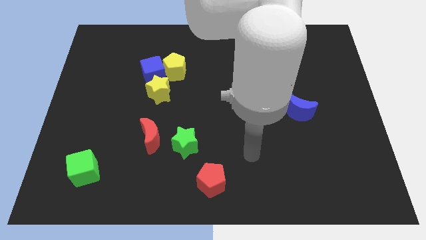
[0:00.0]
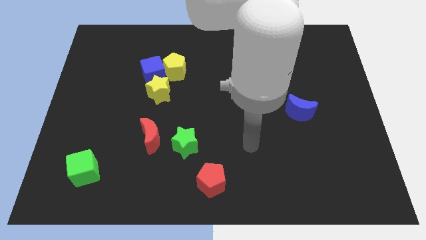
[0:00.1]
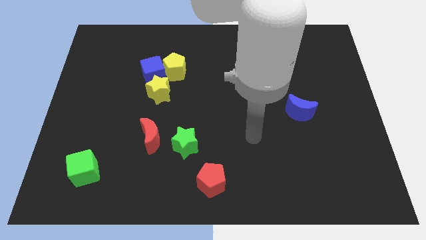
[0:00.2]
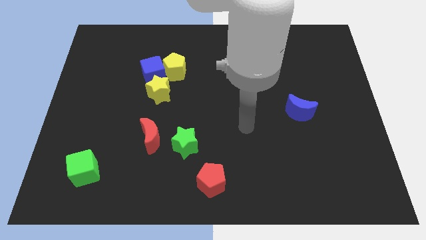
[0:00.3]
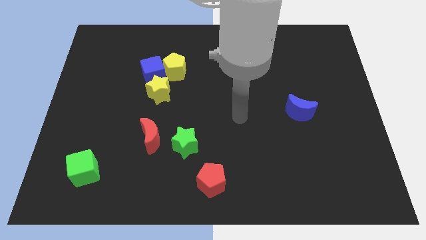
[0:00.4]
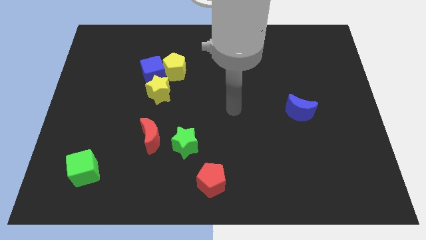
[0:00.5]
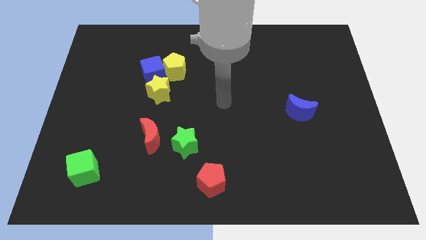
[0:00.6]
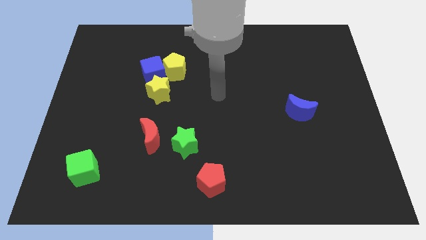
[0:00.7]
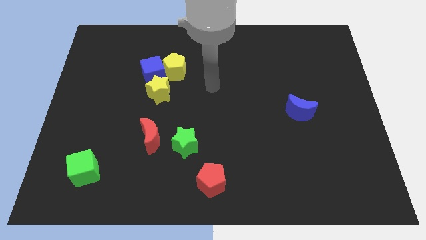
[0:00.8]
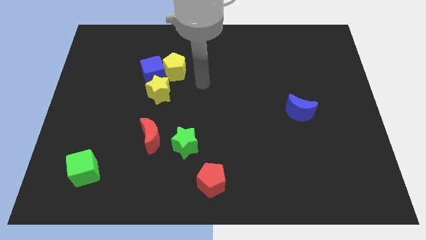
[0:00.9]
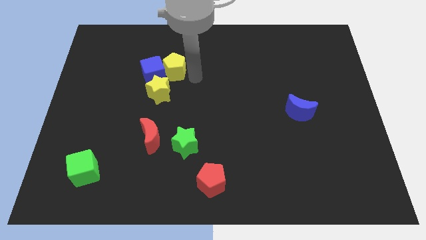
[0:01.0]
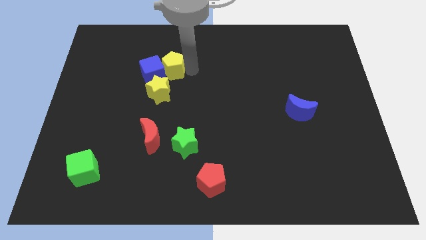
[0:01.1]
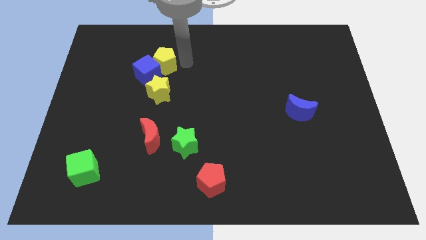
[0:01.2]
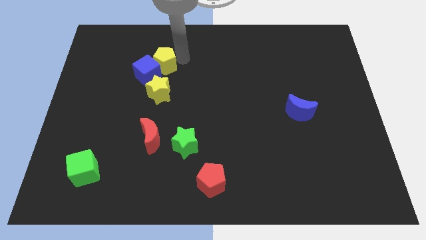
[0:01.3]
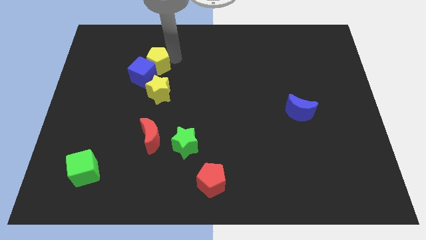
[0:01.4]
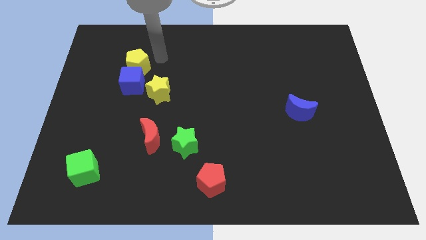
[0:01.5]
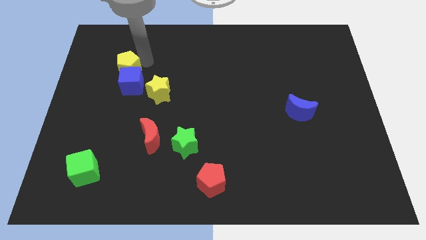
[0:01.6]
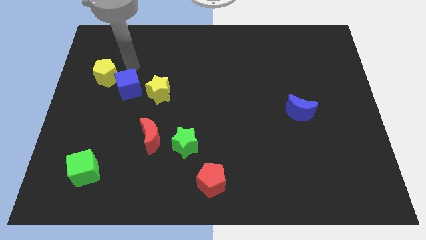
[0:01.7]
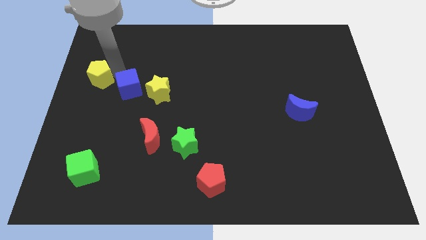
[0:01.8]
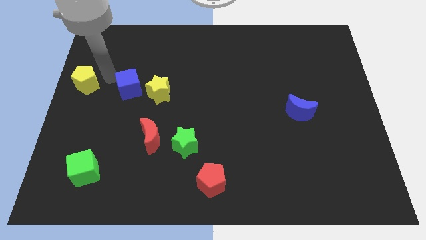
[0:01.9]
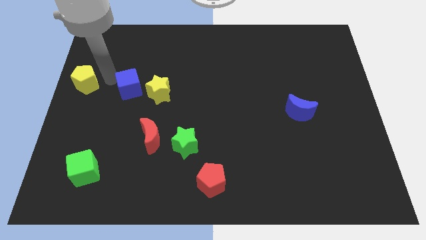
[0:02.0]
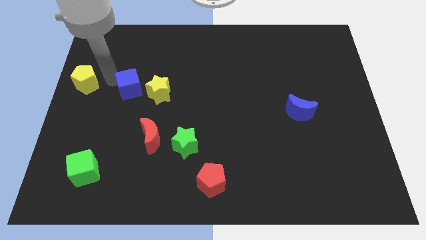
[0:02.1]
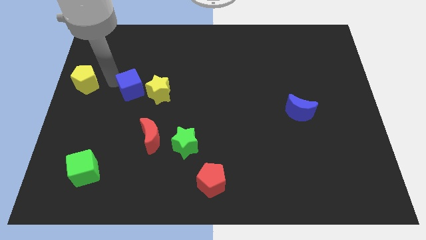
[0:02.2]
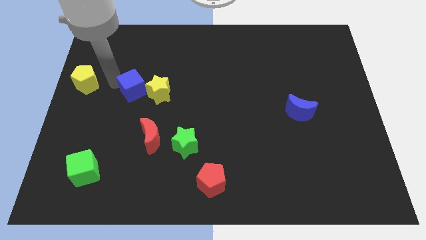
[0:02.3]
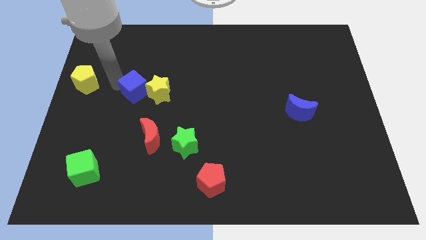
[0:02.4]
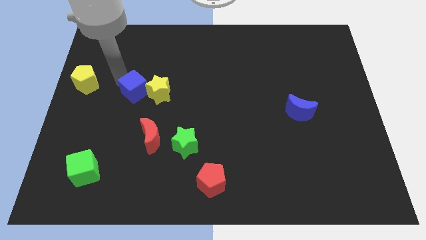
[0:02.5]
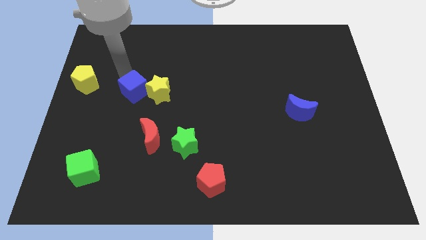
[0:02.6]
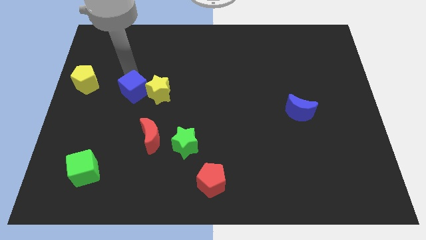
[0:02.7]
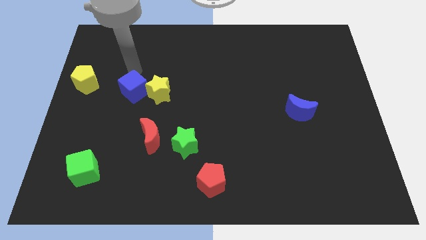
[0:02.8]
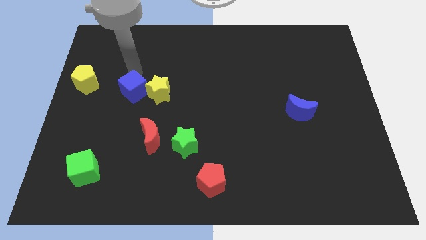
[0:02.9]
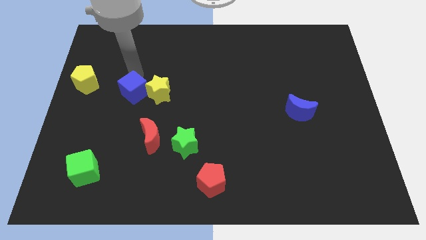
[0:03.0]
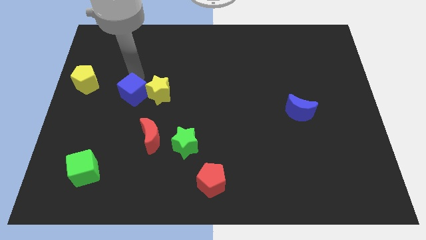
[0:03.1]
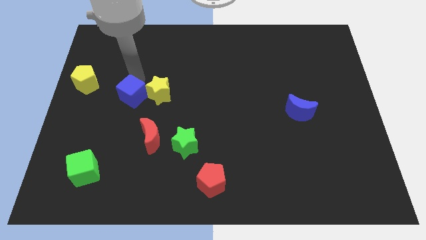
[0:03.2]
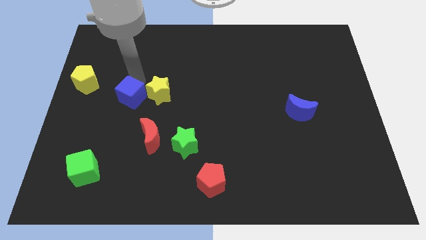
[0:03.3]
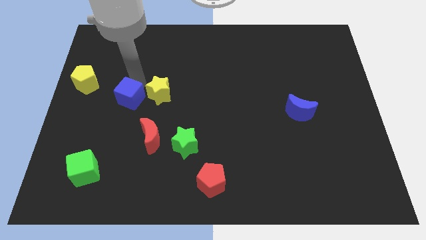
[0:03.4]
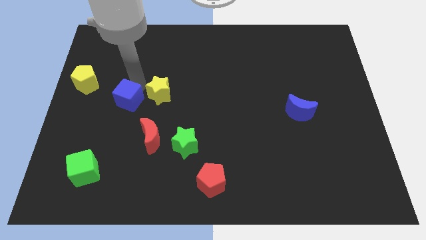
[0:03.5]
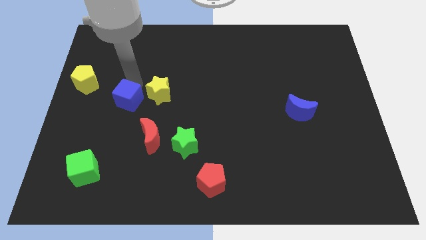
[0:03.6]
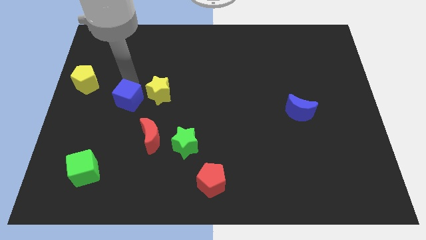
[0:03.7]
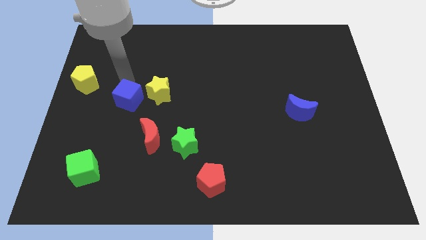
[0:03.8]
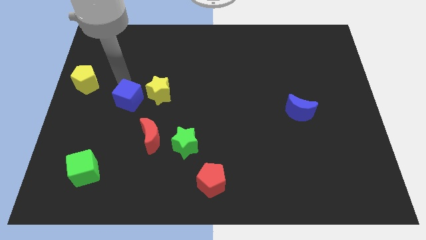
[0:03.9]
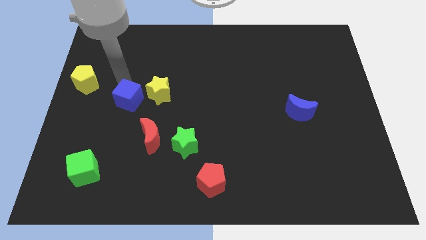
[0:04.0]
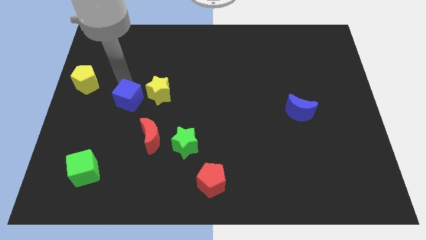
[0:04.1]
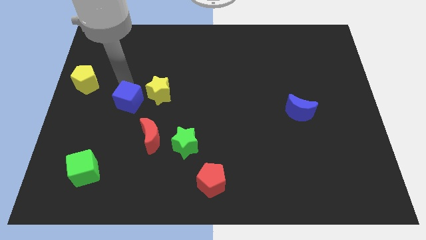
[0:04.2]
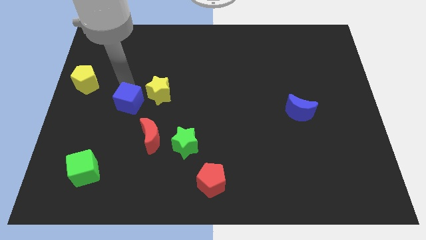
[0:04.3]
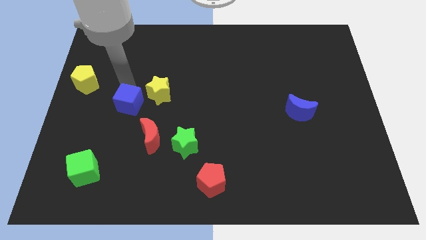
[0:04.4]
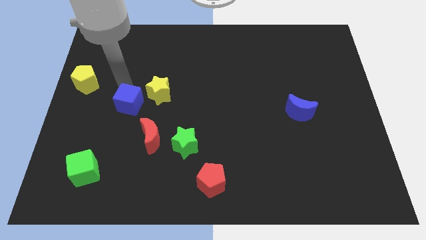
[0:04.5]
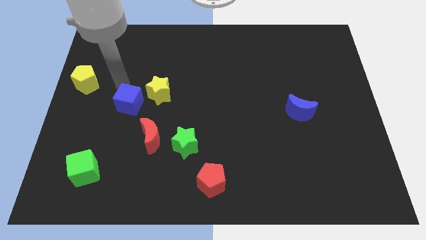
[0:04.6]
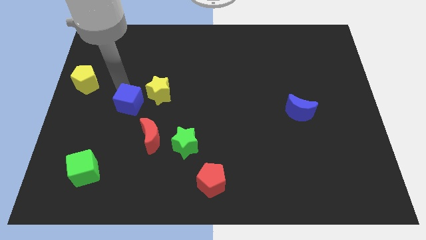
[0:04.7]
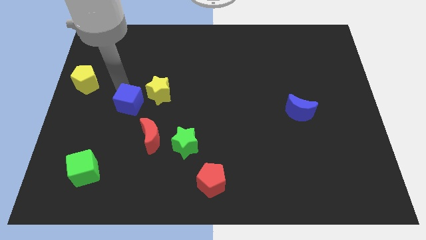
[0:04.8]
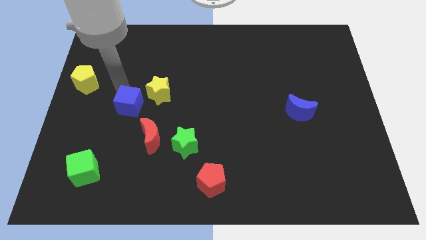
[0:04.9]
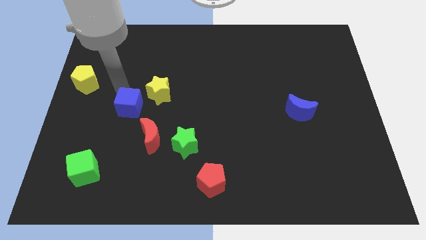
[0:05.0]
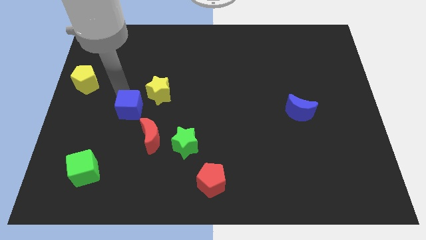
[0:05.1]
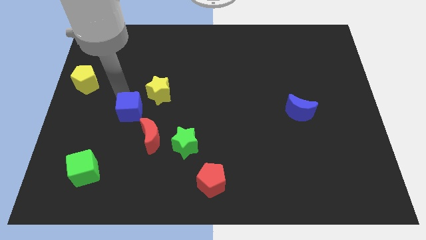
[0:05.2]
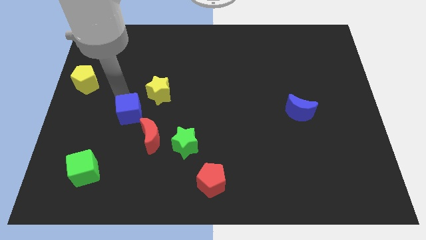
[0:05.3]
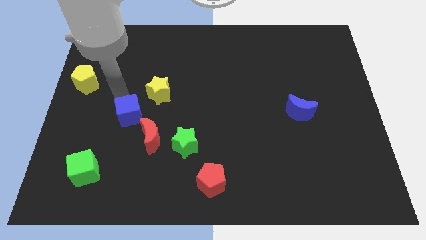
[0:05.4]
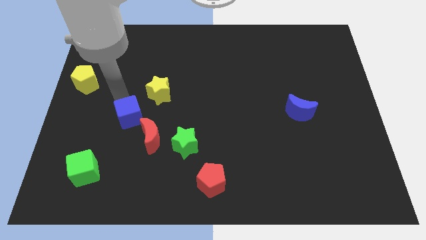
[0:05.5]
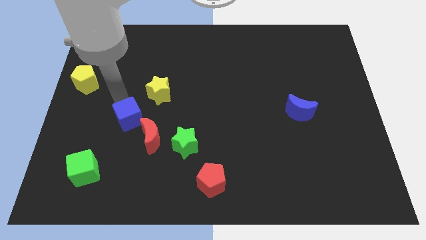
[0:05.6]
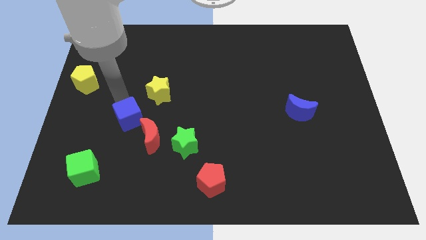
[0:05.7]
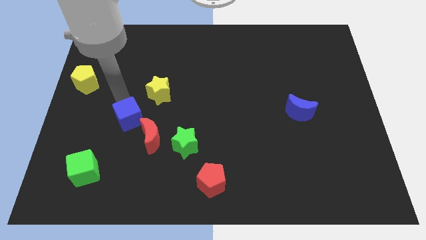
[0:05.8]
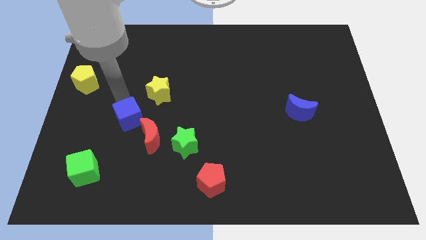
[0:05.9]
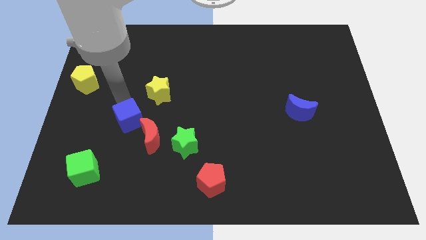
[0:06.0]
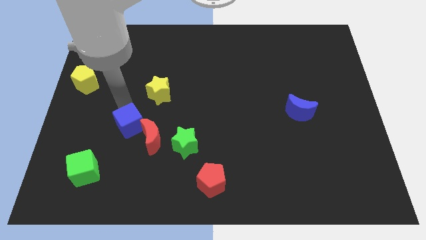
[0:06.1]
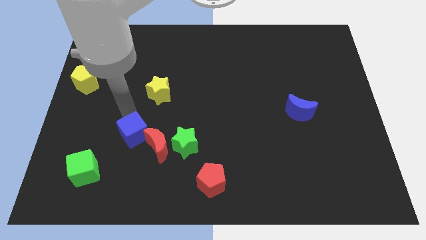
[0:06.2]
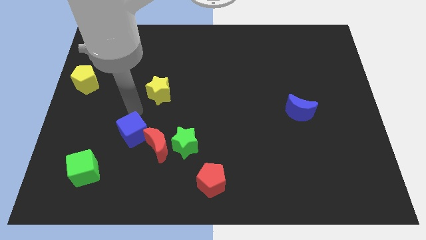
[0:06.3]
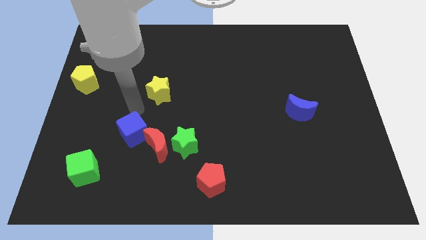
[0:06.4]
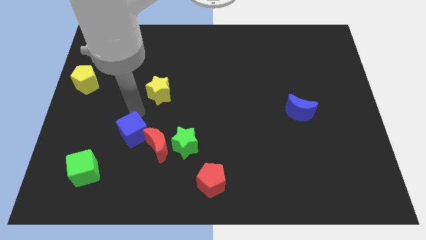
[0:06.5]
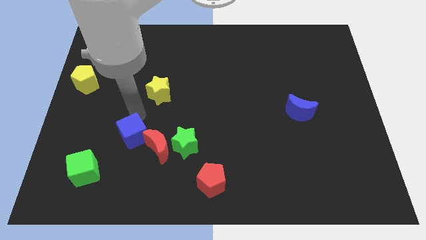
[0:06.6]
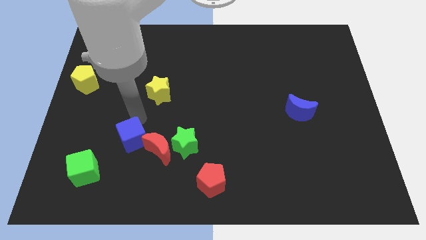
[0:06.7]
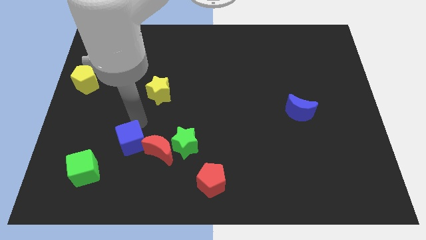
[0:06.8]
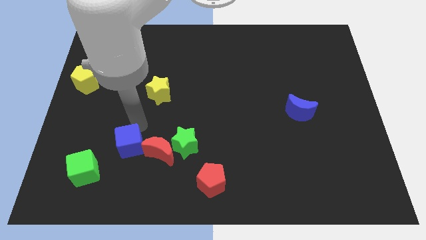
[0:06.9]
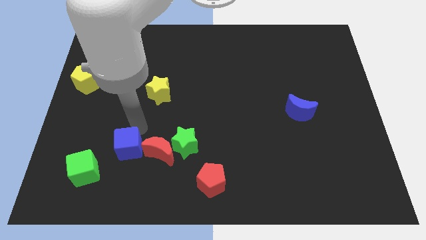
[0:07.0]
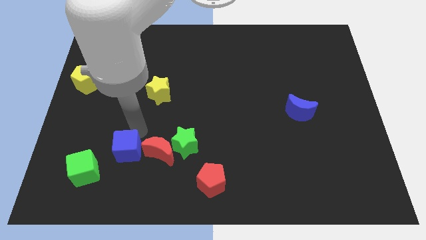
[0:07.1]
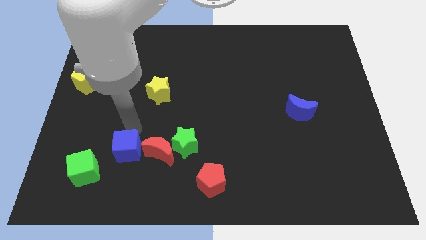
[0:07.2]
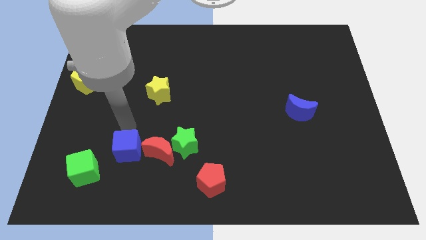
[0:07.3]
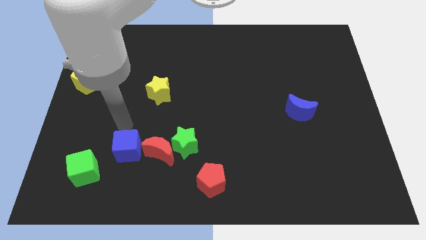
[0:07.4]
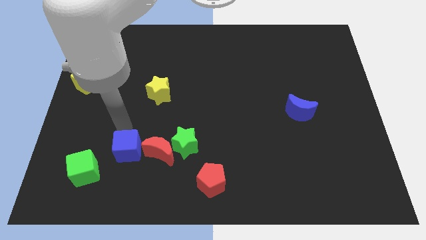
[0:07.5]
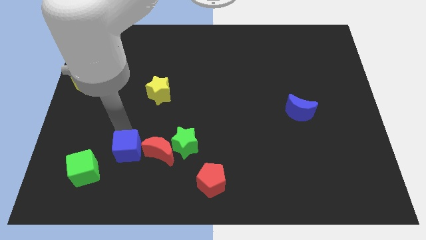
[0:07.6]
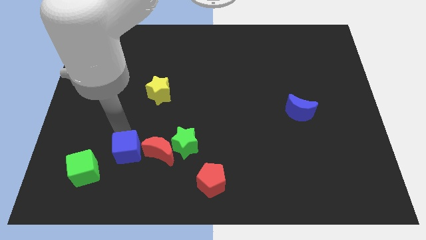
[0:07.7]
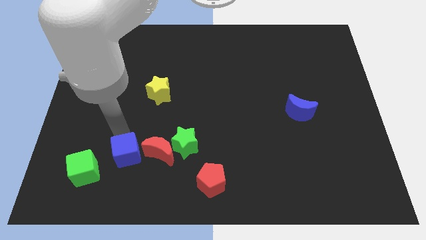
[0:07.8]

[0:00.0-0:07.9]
put the blue cube diagonally down and to the left of the red moon

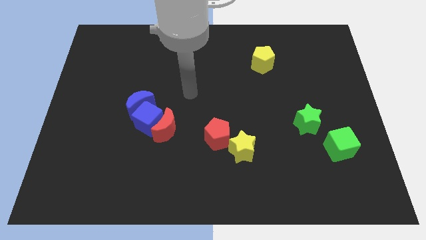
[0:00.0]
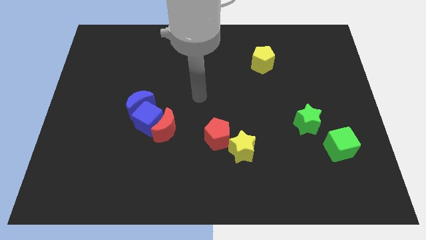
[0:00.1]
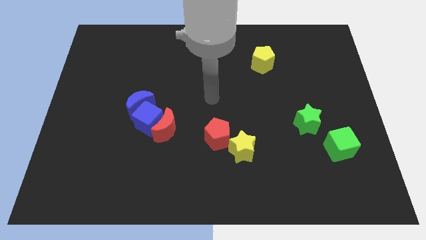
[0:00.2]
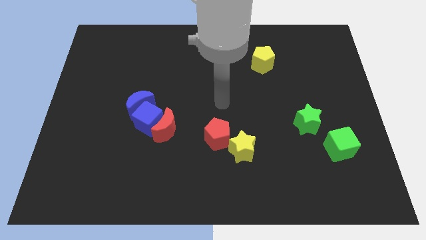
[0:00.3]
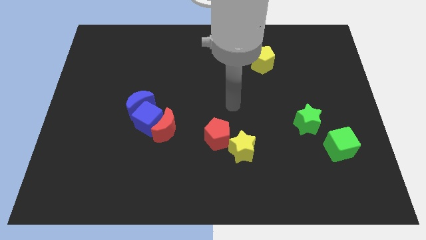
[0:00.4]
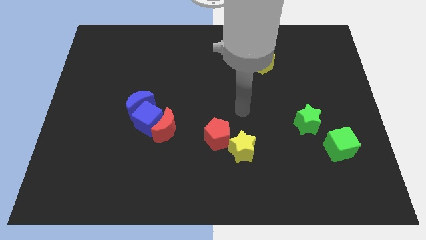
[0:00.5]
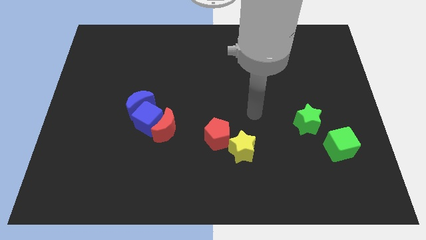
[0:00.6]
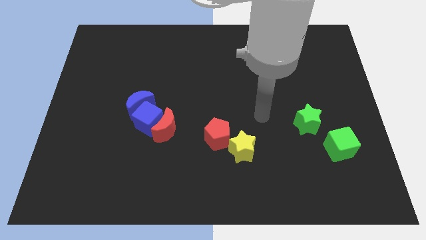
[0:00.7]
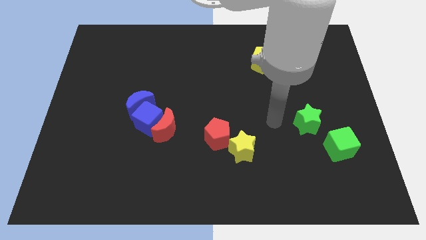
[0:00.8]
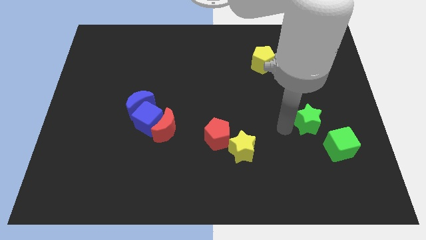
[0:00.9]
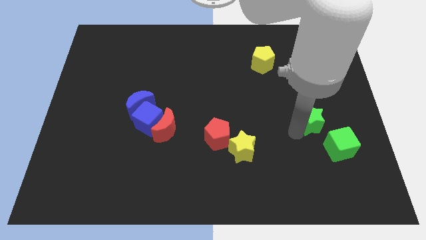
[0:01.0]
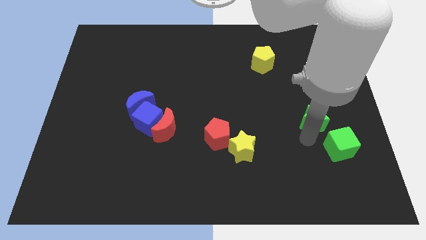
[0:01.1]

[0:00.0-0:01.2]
slide the green cube below the green star
